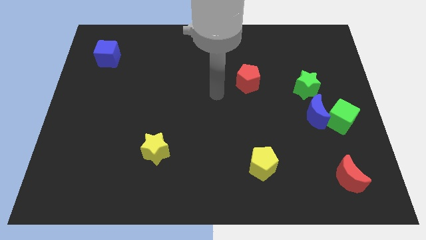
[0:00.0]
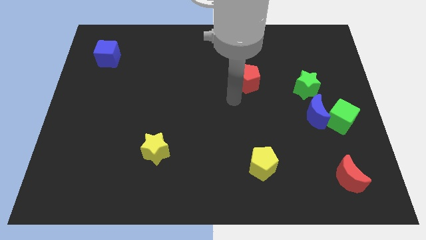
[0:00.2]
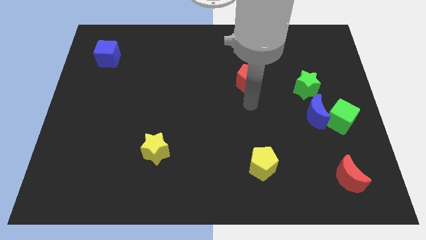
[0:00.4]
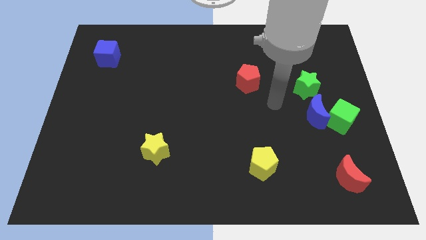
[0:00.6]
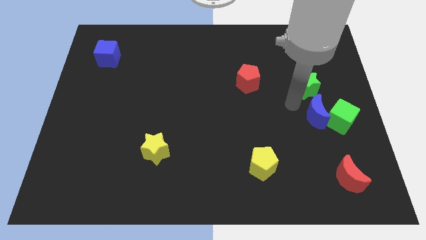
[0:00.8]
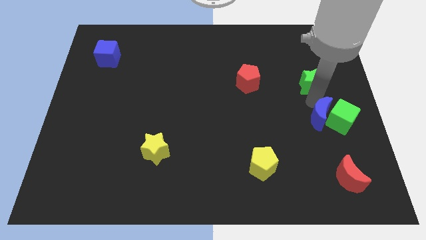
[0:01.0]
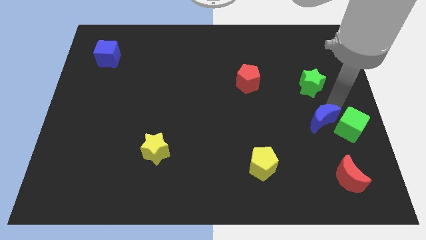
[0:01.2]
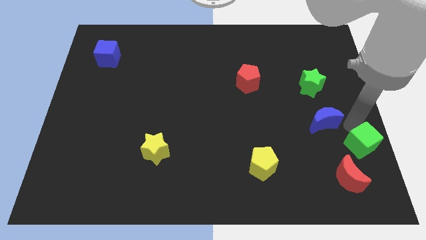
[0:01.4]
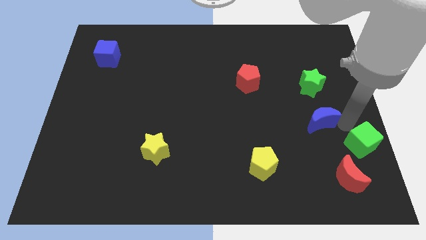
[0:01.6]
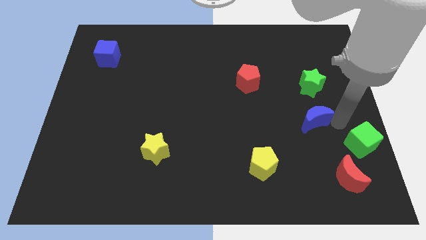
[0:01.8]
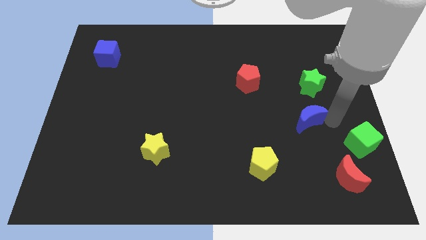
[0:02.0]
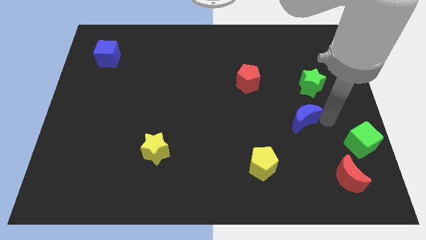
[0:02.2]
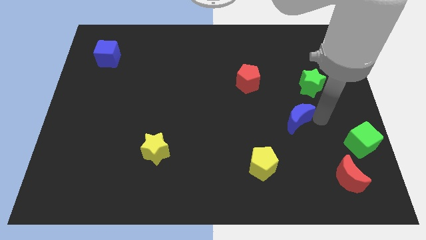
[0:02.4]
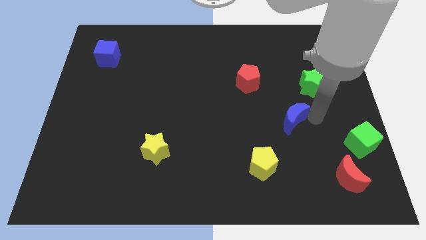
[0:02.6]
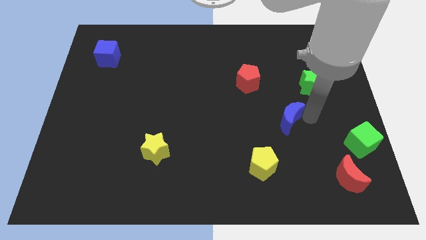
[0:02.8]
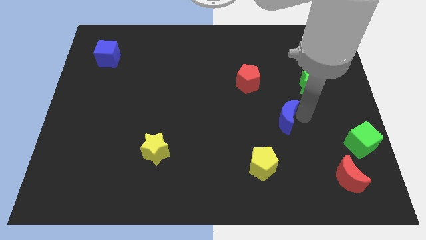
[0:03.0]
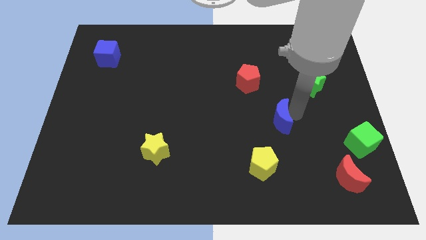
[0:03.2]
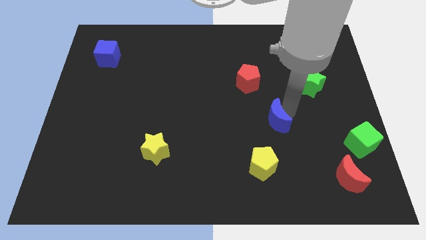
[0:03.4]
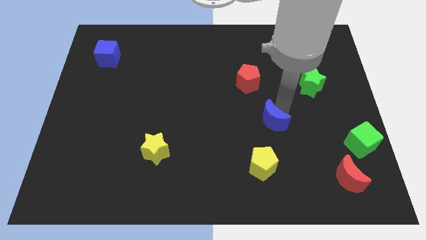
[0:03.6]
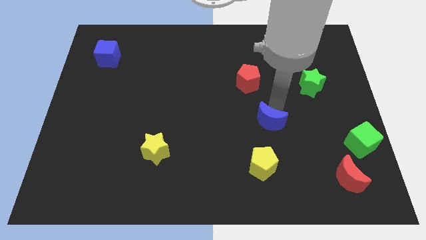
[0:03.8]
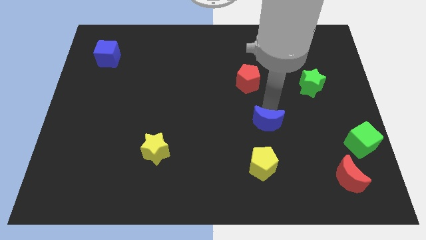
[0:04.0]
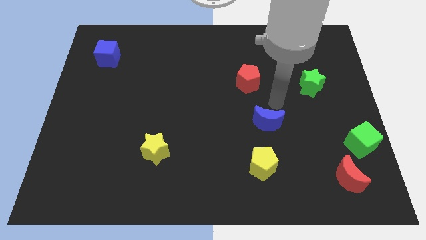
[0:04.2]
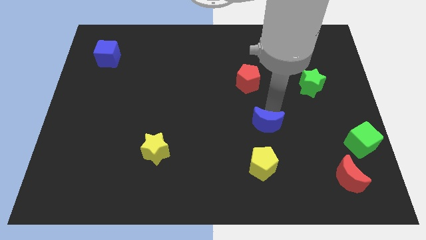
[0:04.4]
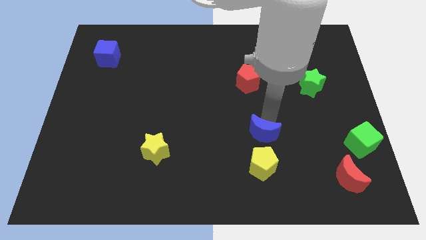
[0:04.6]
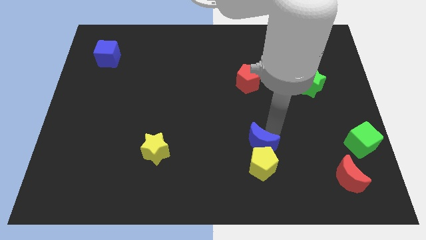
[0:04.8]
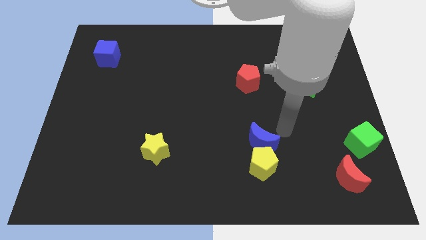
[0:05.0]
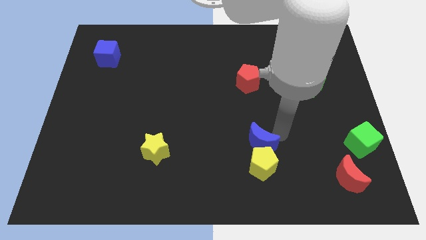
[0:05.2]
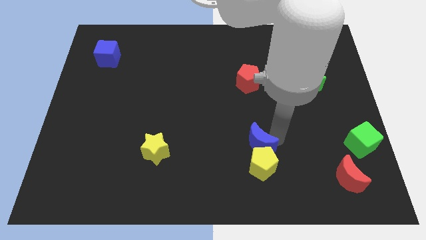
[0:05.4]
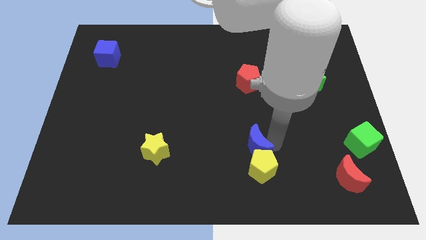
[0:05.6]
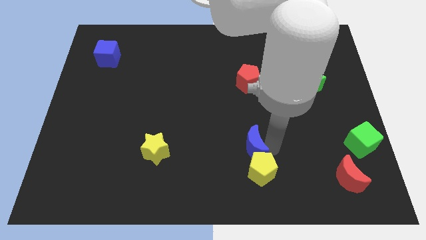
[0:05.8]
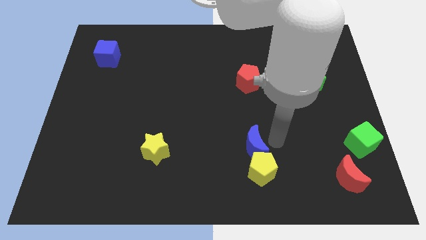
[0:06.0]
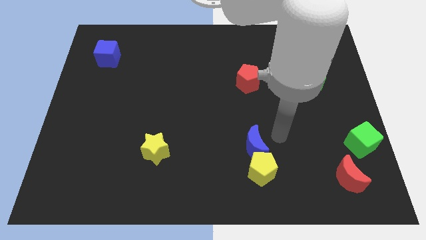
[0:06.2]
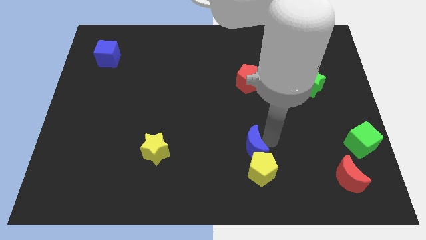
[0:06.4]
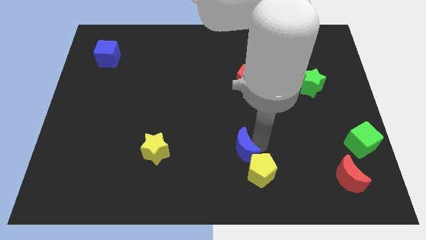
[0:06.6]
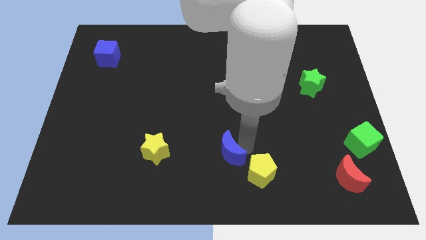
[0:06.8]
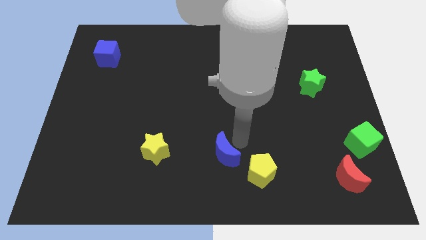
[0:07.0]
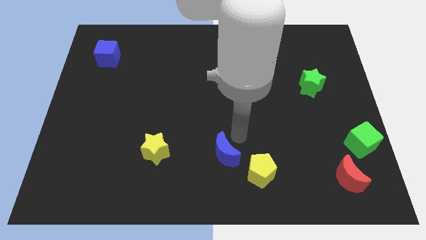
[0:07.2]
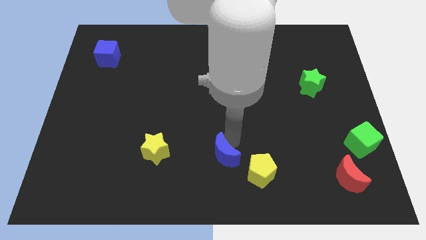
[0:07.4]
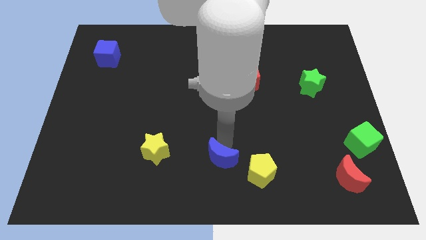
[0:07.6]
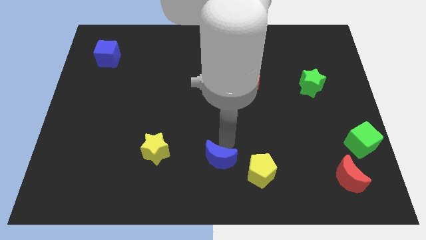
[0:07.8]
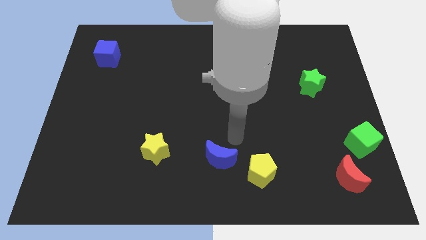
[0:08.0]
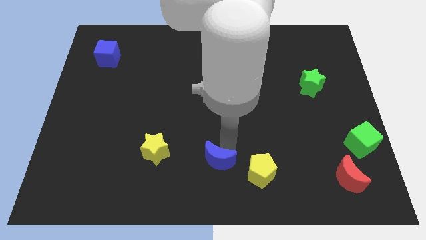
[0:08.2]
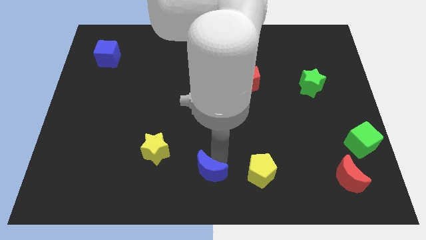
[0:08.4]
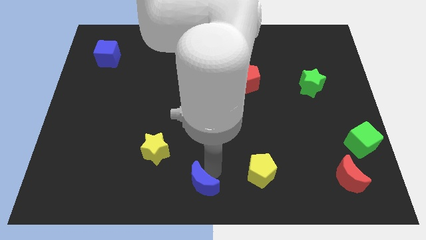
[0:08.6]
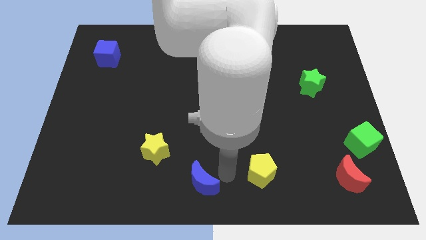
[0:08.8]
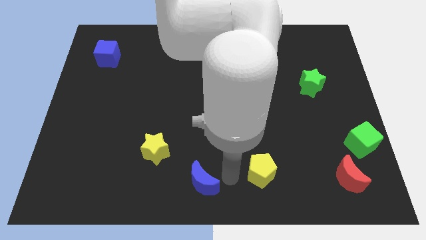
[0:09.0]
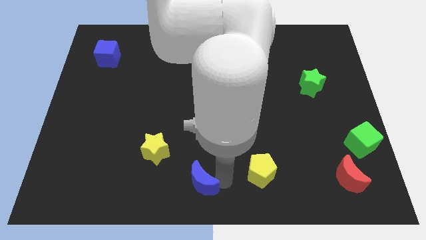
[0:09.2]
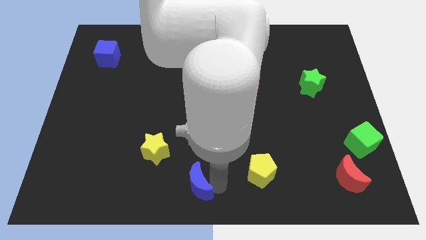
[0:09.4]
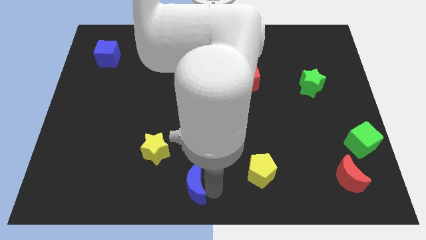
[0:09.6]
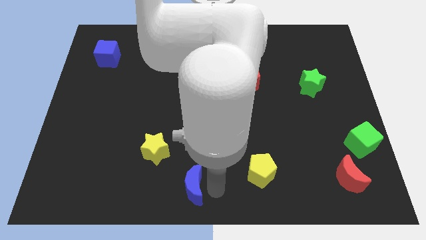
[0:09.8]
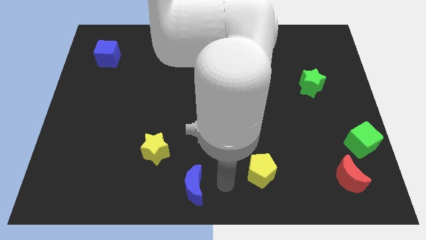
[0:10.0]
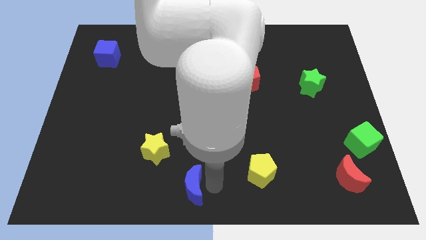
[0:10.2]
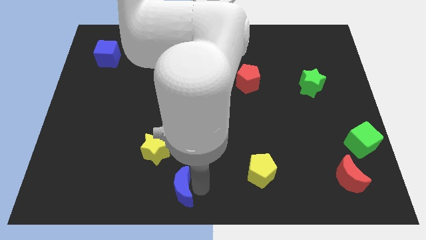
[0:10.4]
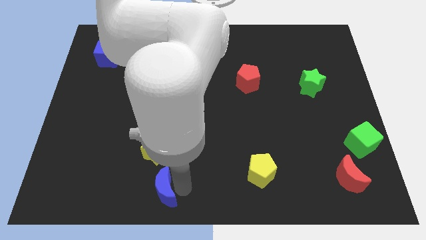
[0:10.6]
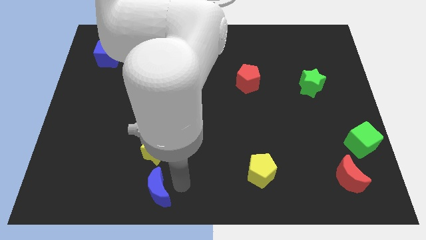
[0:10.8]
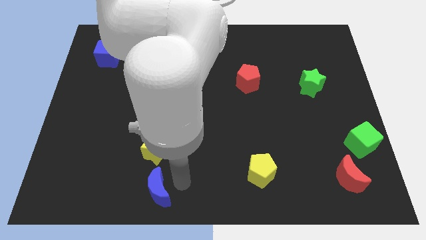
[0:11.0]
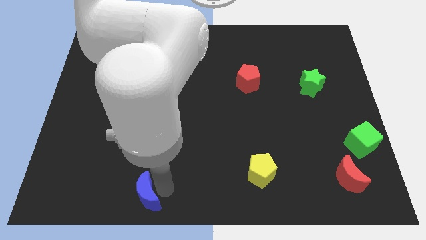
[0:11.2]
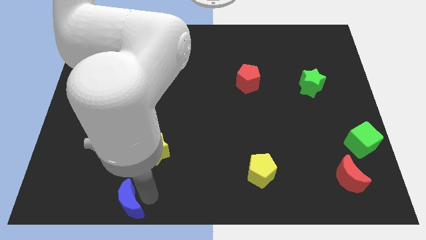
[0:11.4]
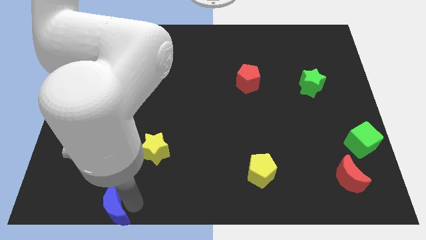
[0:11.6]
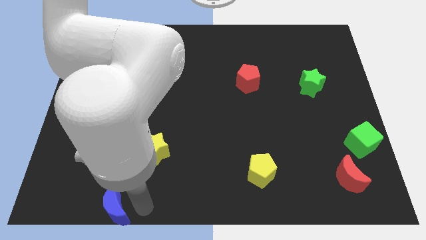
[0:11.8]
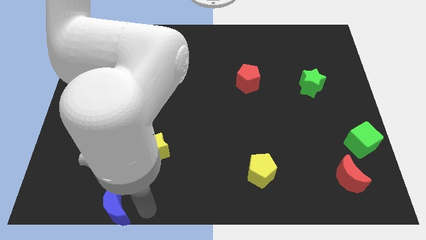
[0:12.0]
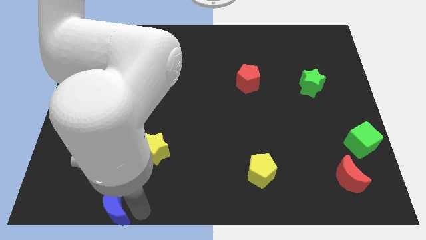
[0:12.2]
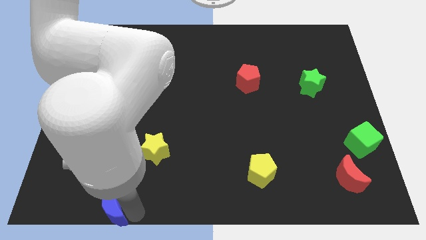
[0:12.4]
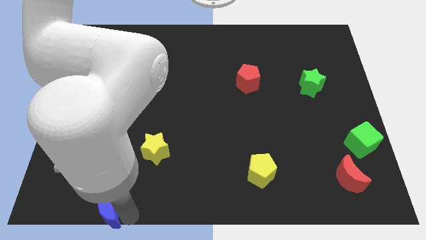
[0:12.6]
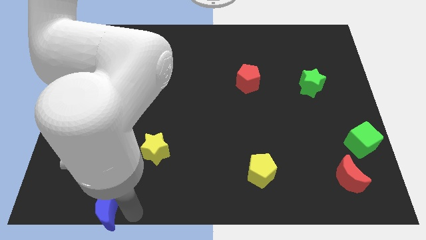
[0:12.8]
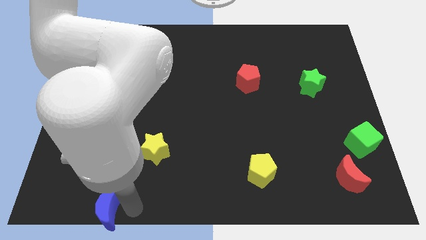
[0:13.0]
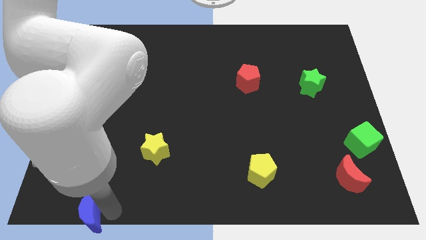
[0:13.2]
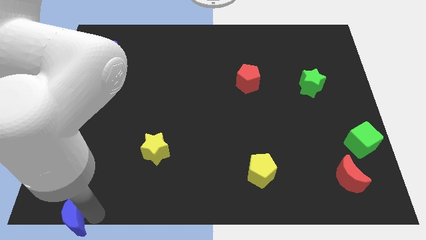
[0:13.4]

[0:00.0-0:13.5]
put the blue moon to the lower left corner
